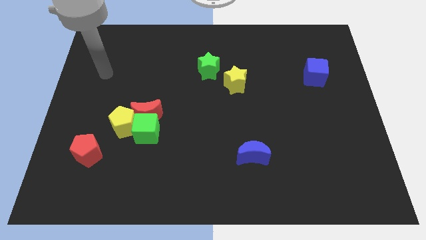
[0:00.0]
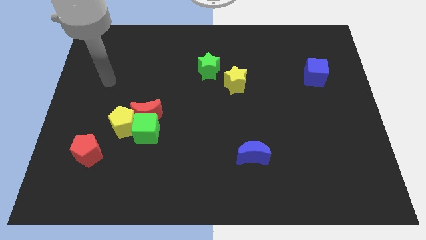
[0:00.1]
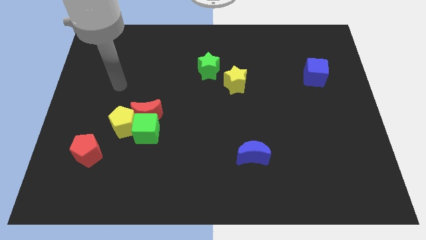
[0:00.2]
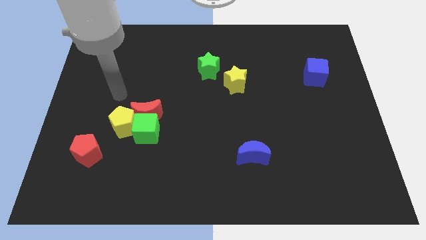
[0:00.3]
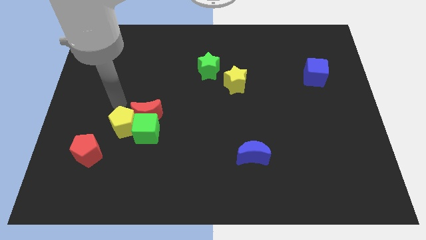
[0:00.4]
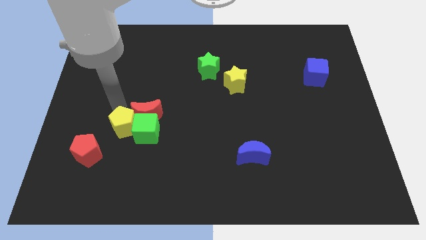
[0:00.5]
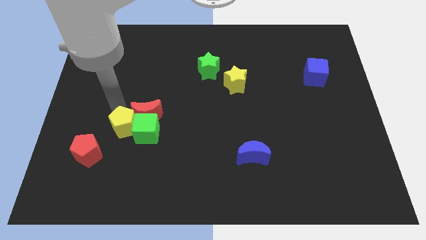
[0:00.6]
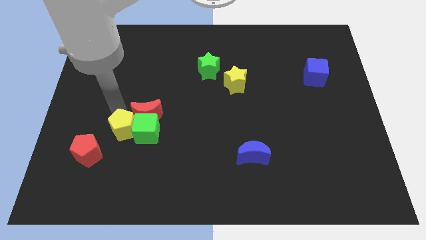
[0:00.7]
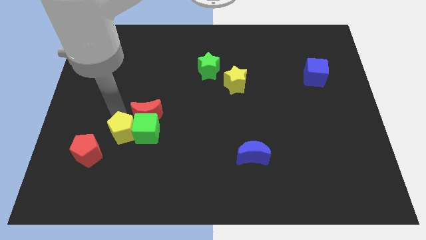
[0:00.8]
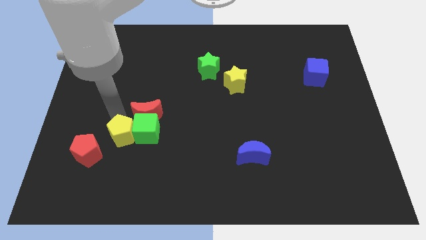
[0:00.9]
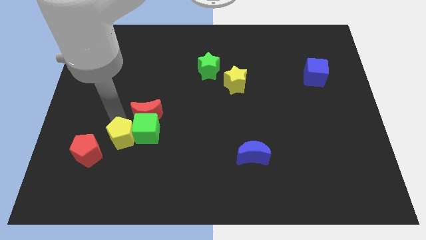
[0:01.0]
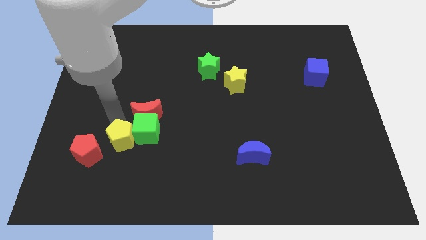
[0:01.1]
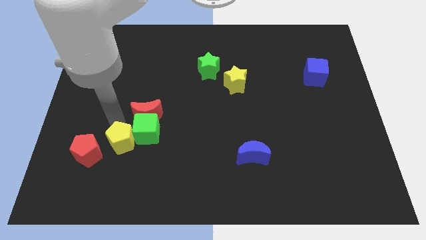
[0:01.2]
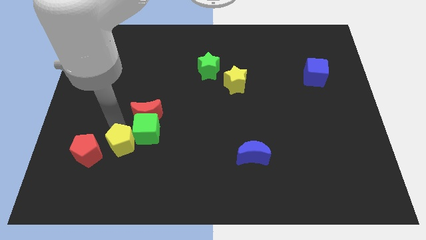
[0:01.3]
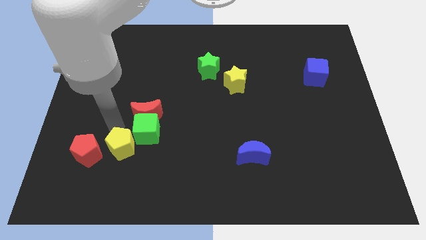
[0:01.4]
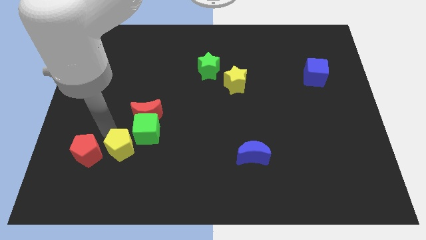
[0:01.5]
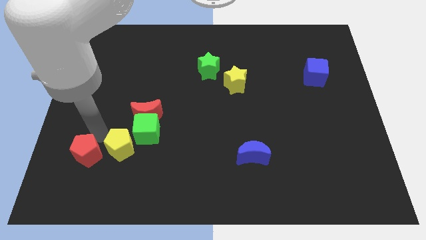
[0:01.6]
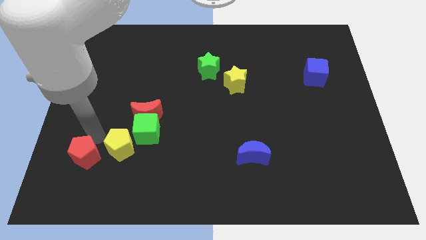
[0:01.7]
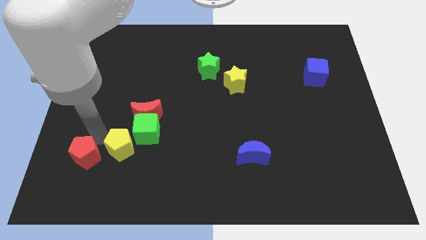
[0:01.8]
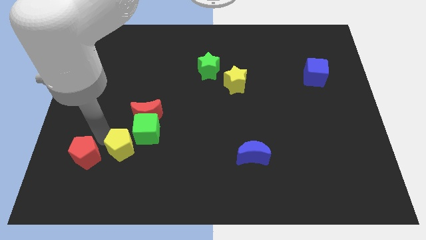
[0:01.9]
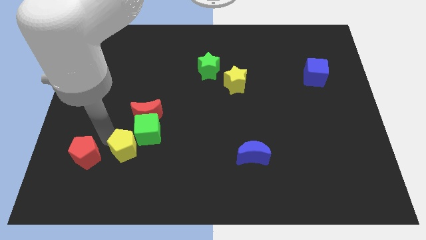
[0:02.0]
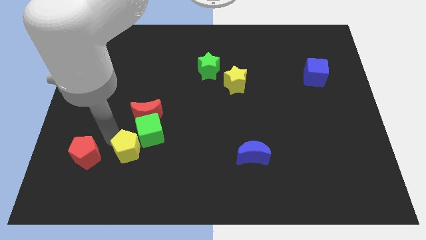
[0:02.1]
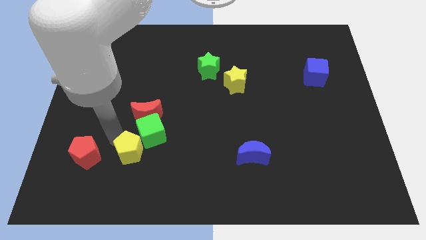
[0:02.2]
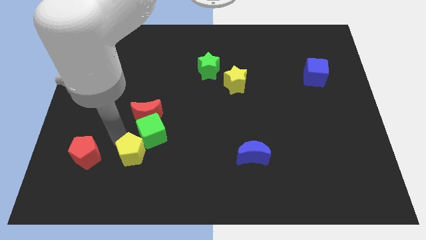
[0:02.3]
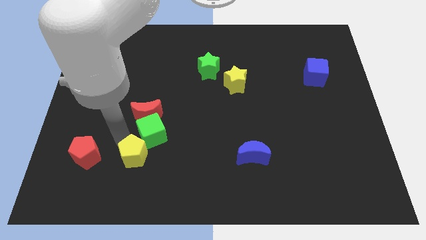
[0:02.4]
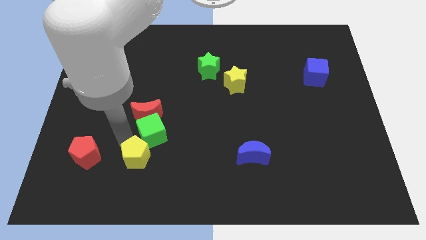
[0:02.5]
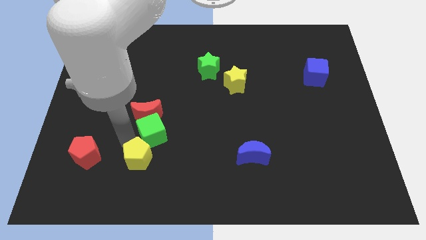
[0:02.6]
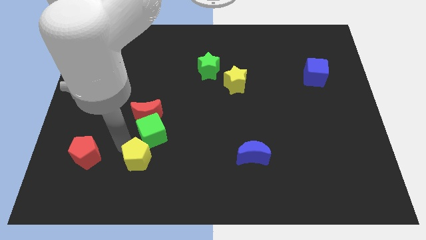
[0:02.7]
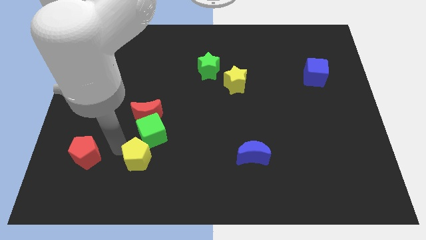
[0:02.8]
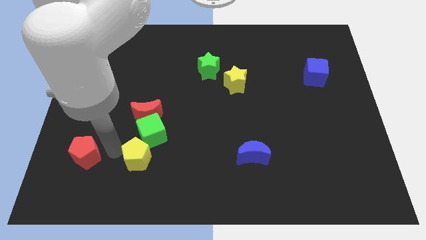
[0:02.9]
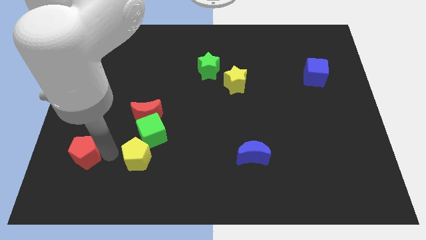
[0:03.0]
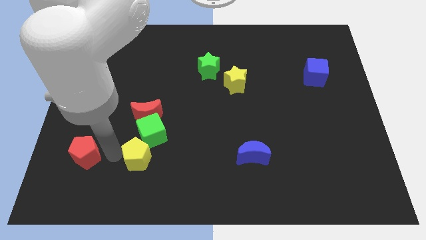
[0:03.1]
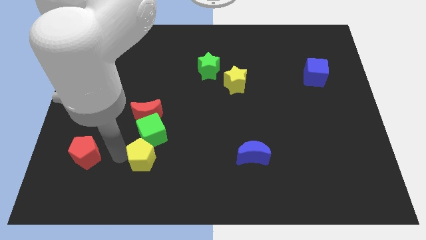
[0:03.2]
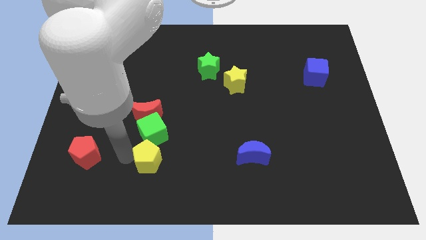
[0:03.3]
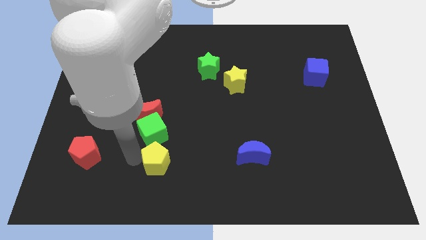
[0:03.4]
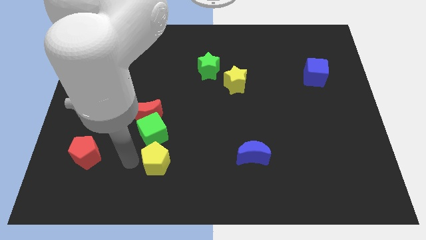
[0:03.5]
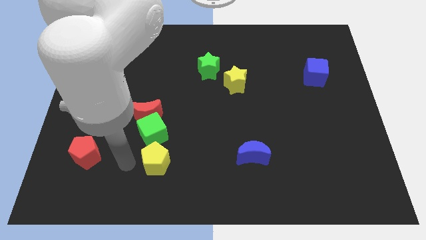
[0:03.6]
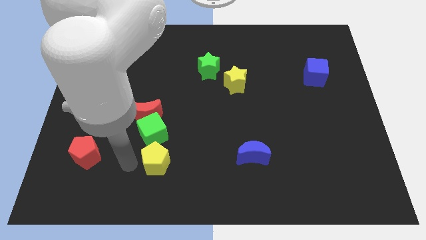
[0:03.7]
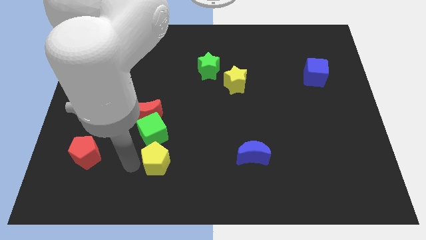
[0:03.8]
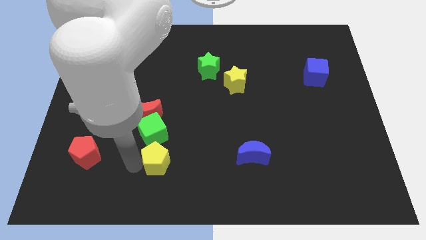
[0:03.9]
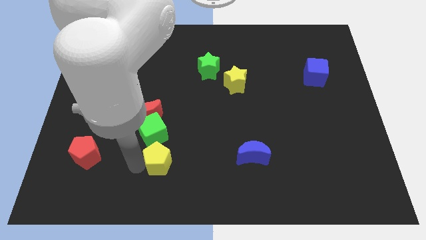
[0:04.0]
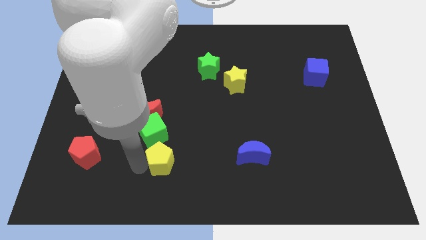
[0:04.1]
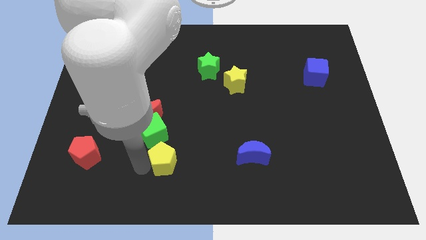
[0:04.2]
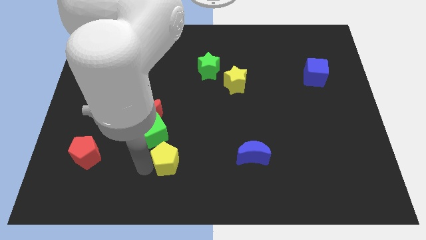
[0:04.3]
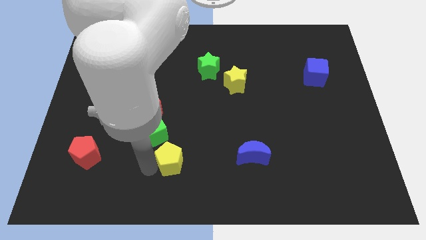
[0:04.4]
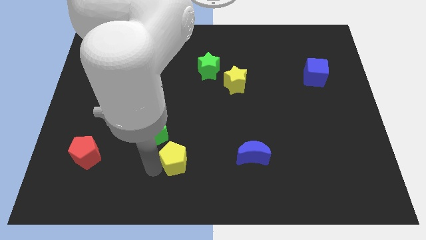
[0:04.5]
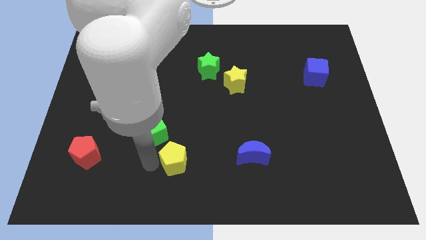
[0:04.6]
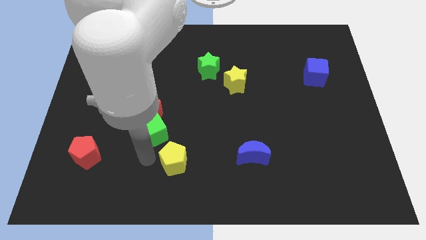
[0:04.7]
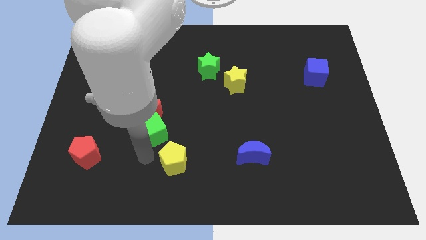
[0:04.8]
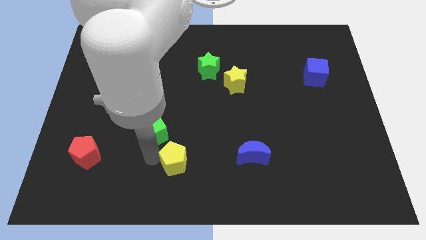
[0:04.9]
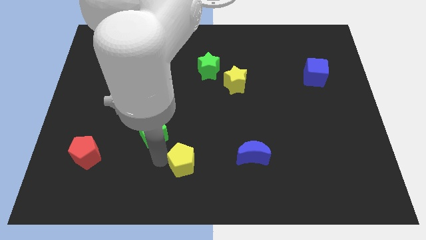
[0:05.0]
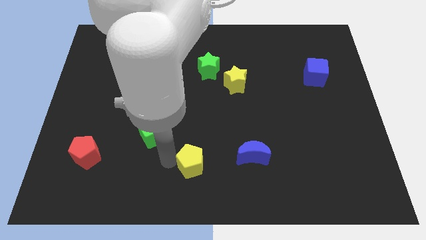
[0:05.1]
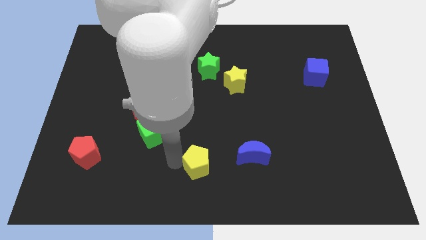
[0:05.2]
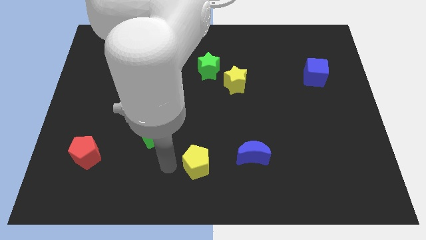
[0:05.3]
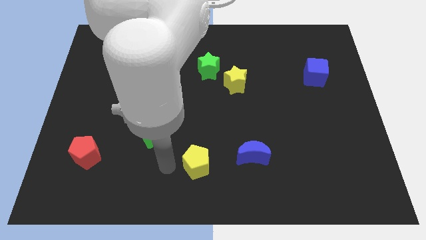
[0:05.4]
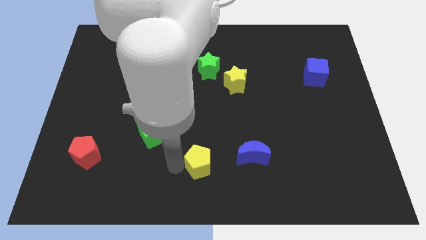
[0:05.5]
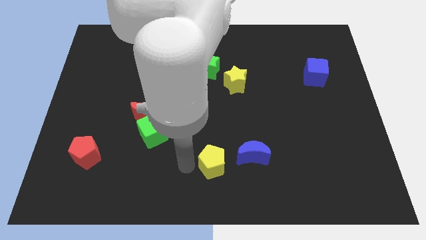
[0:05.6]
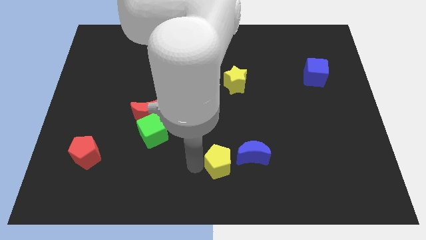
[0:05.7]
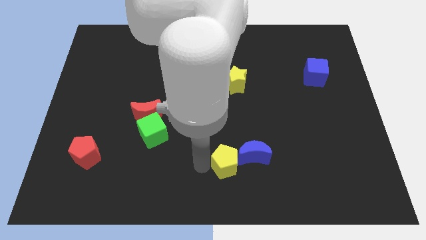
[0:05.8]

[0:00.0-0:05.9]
slide the yellow pentagon next to the blue moon

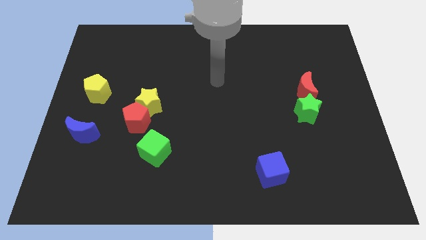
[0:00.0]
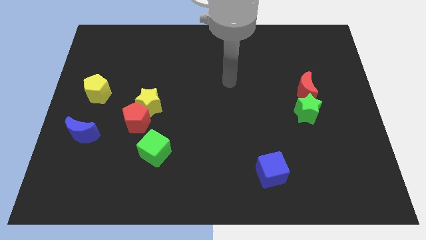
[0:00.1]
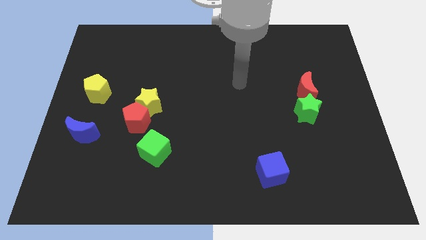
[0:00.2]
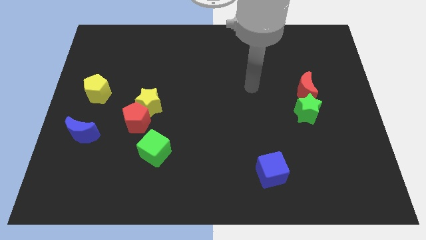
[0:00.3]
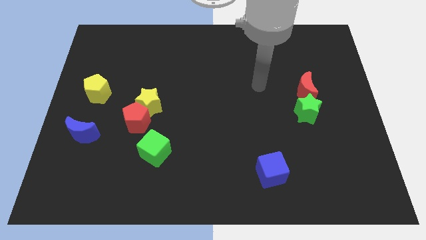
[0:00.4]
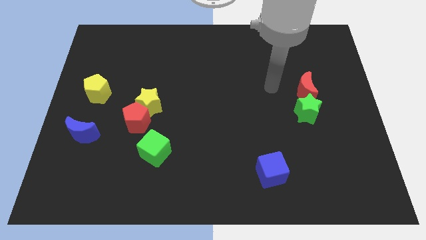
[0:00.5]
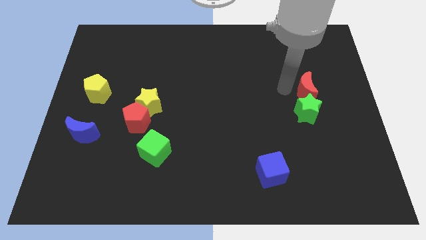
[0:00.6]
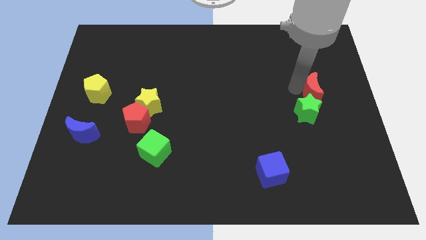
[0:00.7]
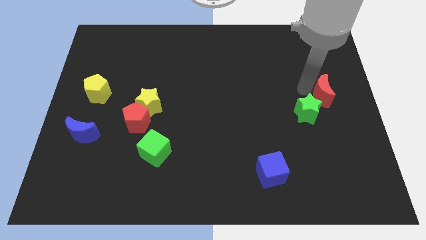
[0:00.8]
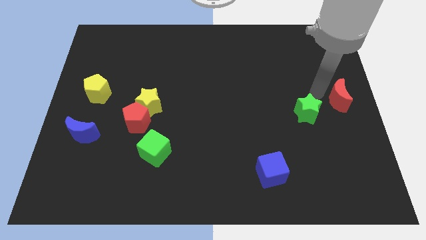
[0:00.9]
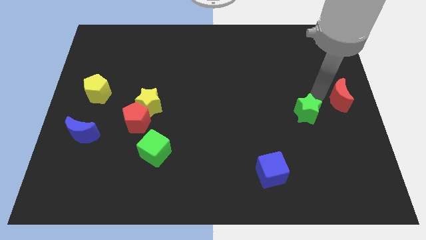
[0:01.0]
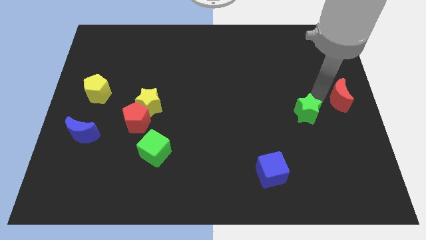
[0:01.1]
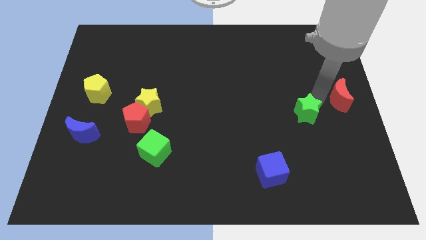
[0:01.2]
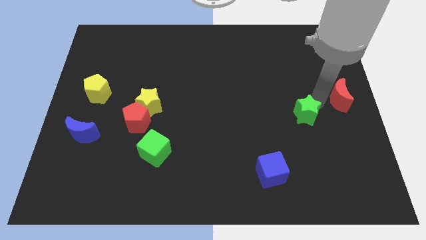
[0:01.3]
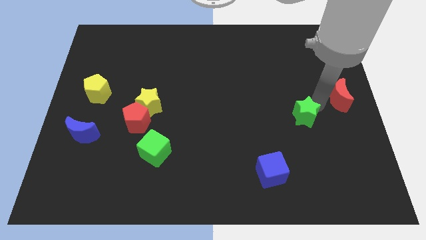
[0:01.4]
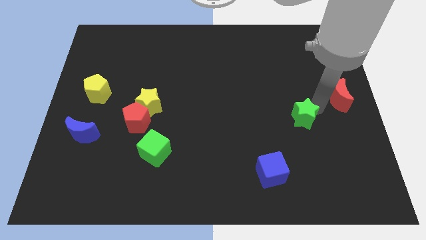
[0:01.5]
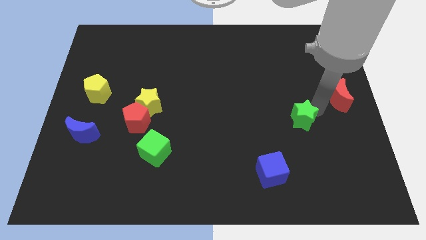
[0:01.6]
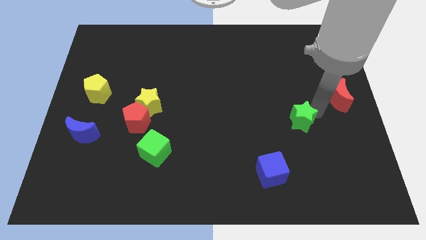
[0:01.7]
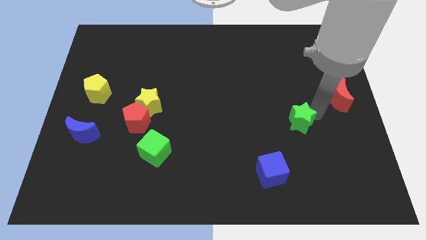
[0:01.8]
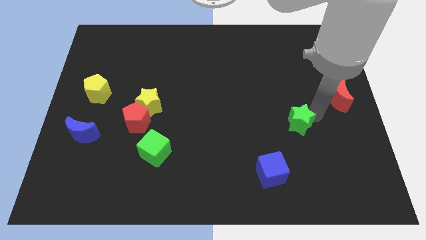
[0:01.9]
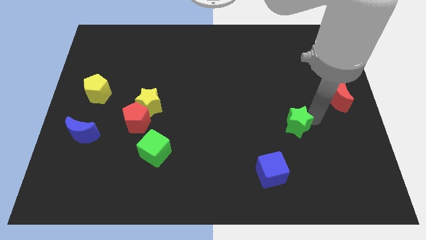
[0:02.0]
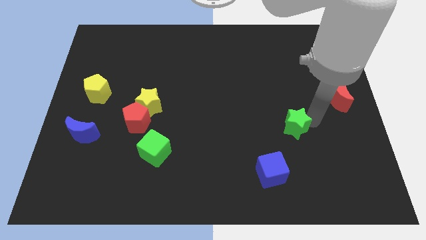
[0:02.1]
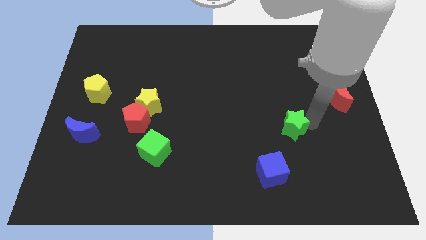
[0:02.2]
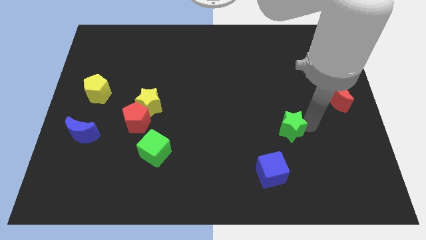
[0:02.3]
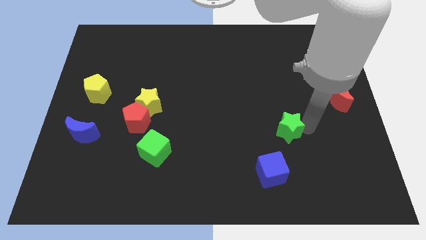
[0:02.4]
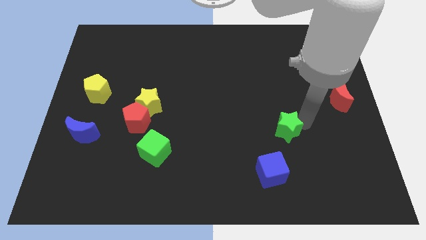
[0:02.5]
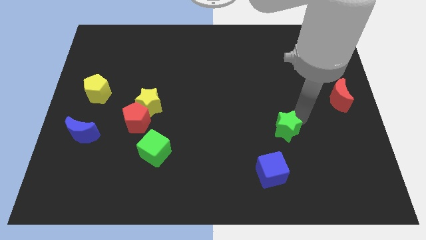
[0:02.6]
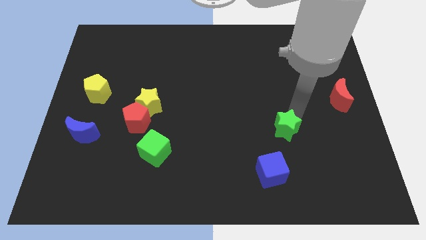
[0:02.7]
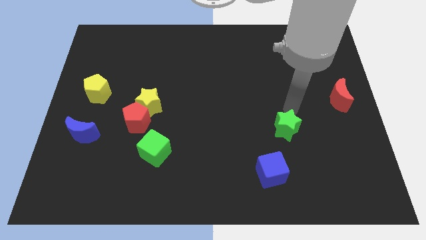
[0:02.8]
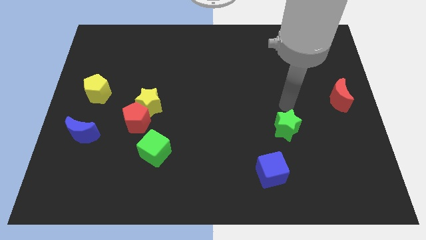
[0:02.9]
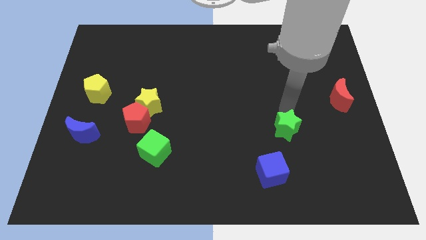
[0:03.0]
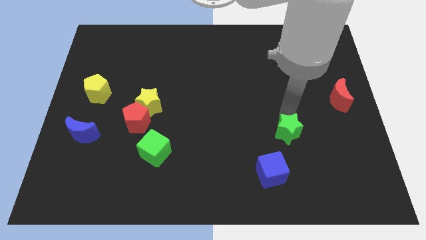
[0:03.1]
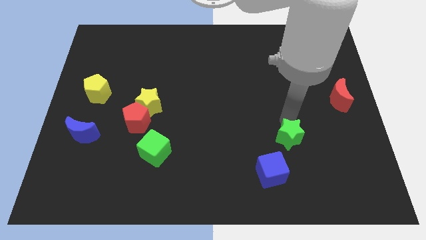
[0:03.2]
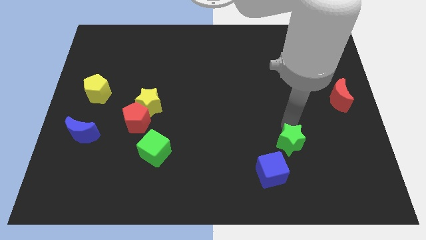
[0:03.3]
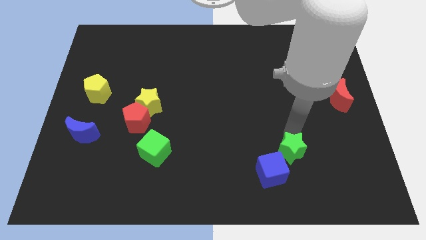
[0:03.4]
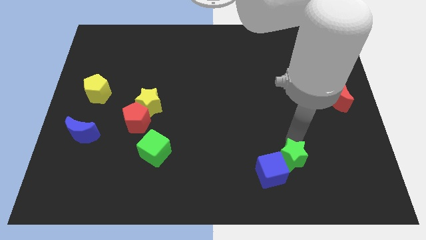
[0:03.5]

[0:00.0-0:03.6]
slide the green star next to the blue cube
